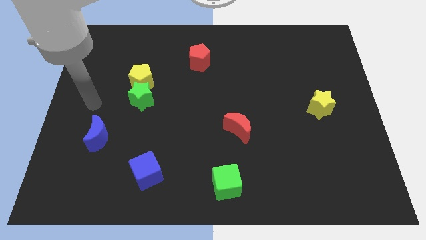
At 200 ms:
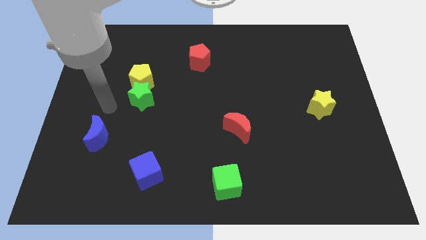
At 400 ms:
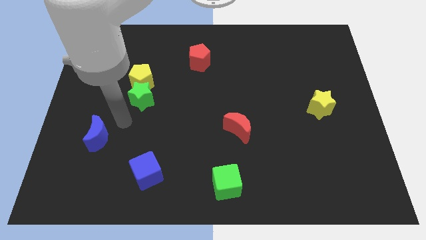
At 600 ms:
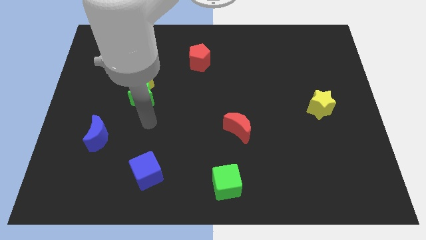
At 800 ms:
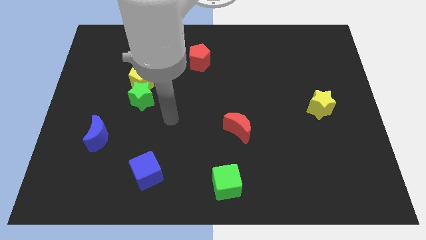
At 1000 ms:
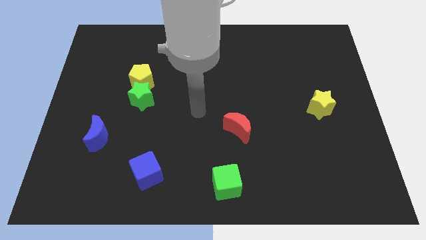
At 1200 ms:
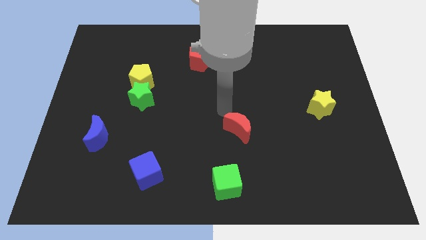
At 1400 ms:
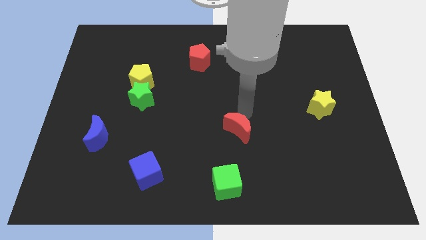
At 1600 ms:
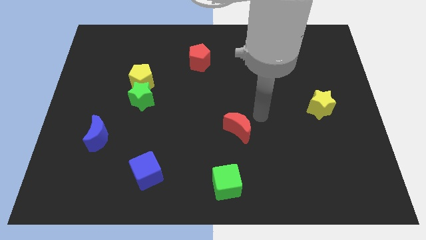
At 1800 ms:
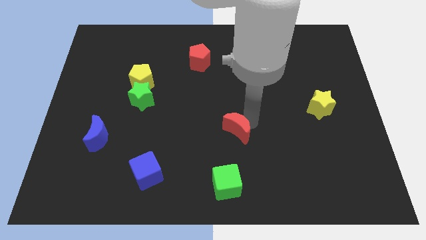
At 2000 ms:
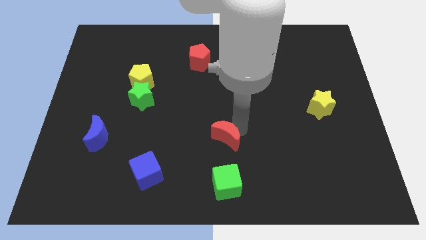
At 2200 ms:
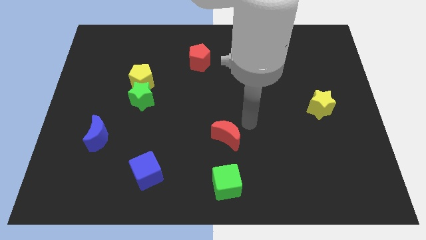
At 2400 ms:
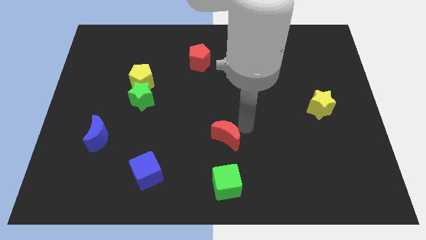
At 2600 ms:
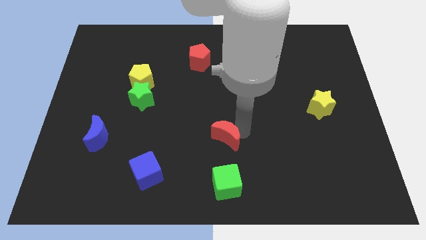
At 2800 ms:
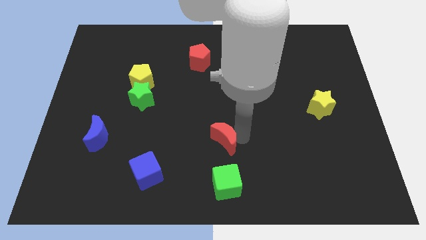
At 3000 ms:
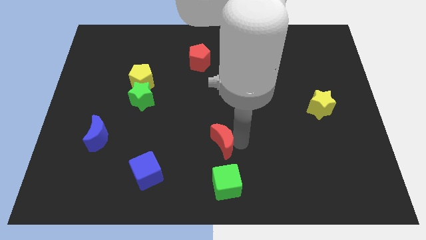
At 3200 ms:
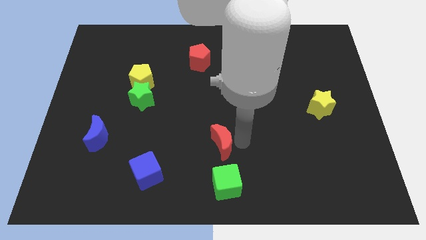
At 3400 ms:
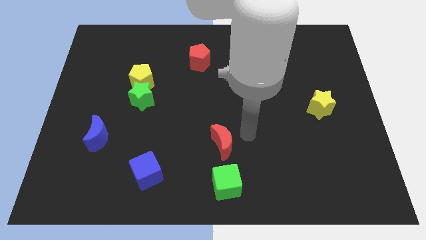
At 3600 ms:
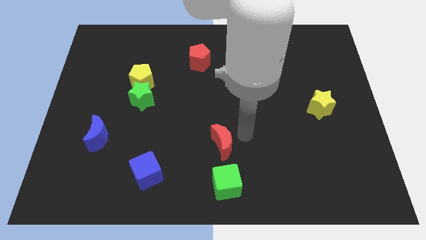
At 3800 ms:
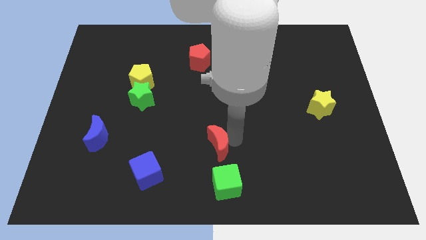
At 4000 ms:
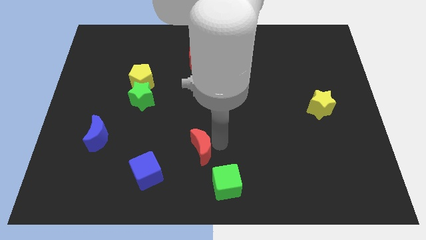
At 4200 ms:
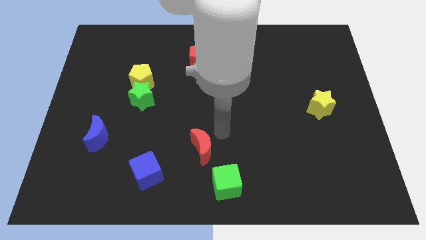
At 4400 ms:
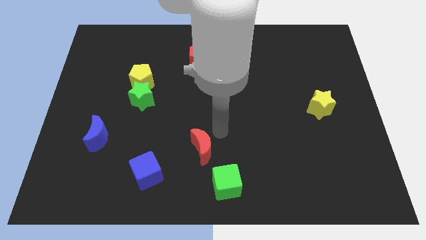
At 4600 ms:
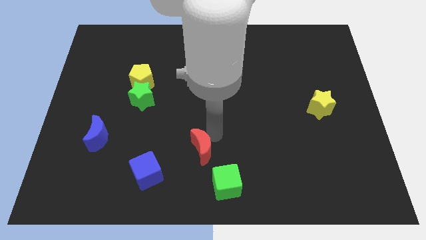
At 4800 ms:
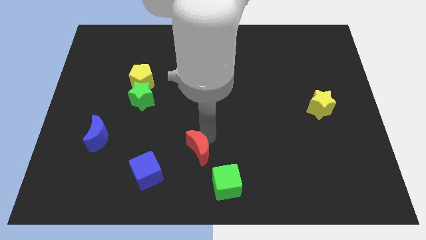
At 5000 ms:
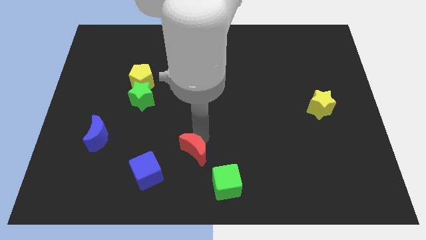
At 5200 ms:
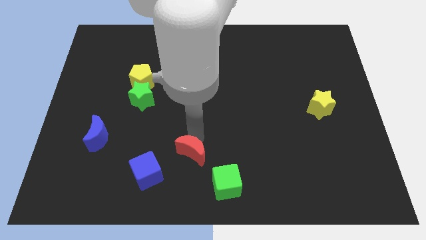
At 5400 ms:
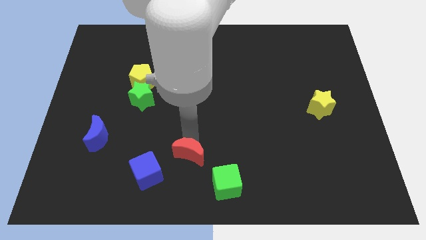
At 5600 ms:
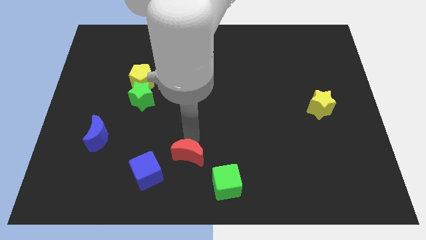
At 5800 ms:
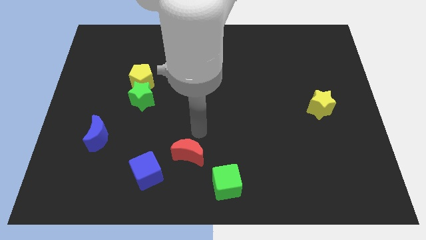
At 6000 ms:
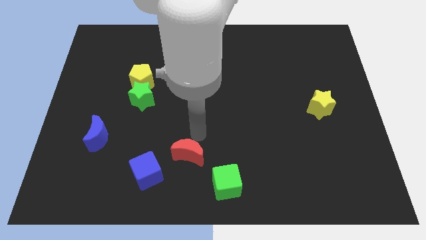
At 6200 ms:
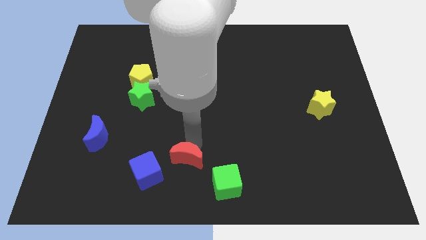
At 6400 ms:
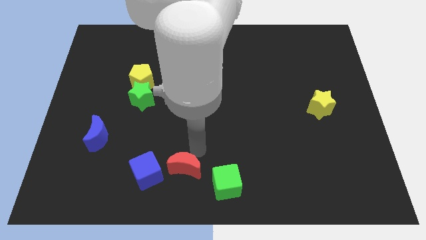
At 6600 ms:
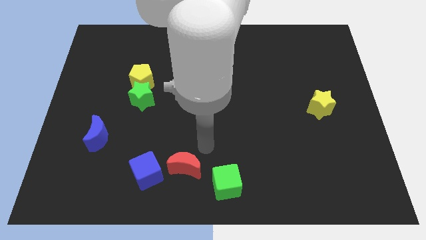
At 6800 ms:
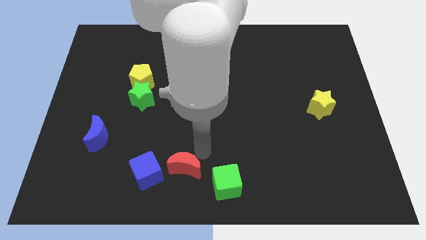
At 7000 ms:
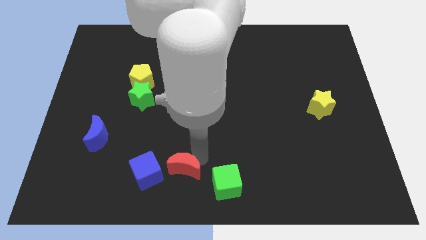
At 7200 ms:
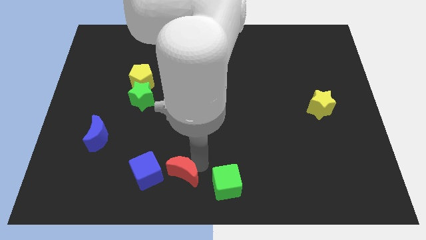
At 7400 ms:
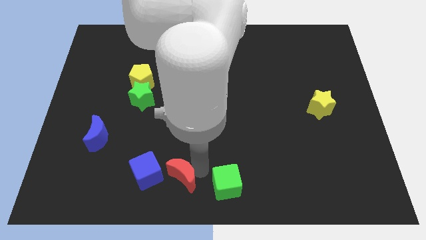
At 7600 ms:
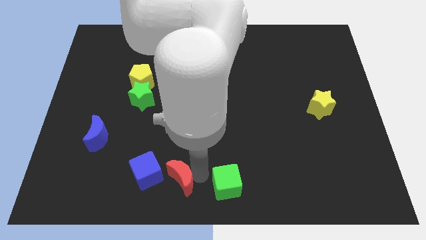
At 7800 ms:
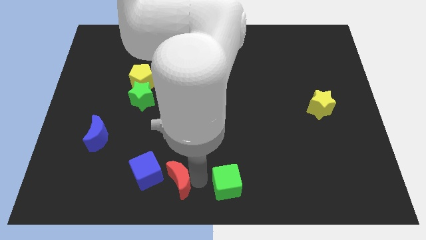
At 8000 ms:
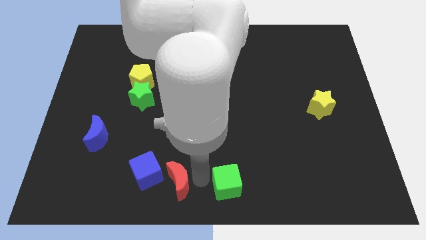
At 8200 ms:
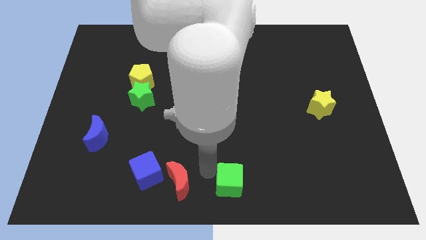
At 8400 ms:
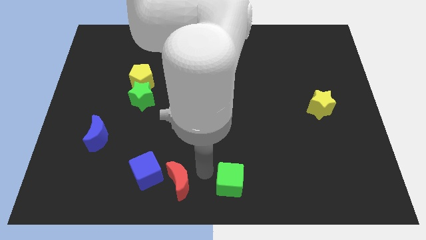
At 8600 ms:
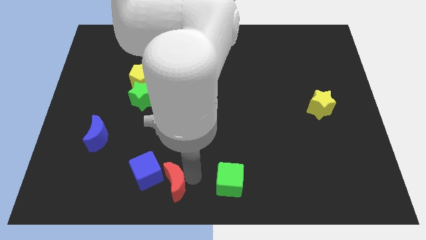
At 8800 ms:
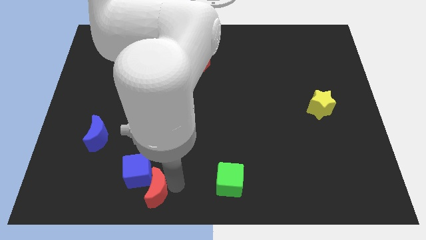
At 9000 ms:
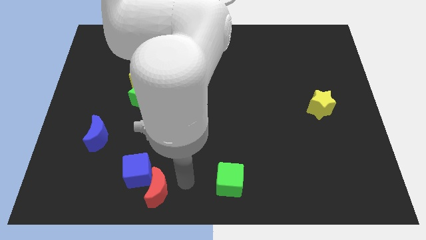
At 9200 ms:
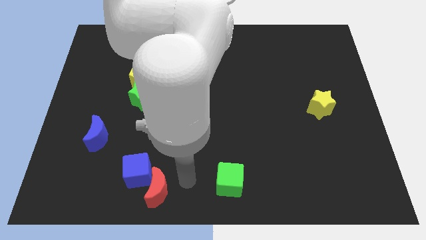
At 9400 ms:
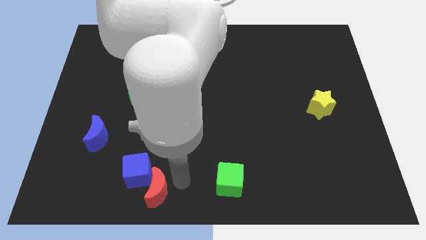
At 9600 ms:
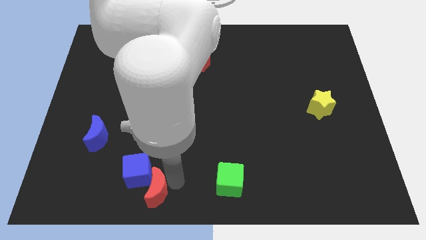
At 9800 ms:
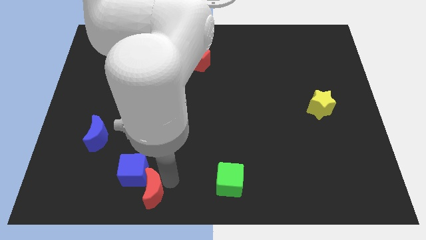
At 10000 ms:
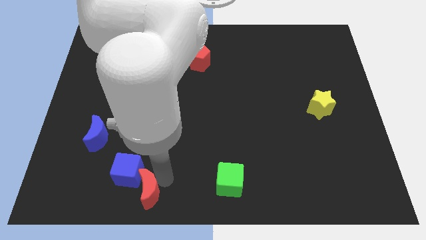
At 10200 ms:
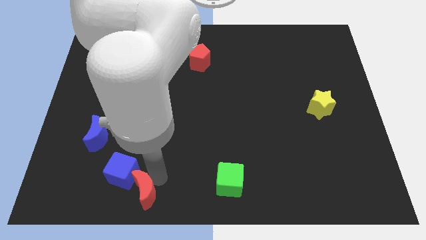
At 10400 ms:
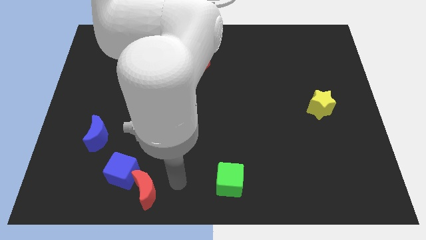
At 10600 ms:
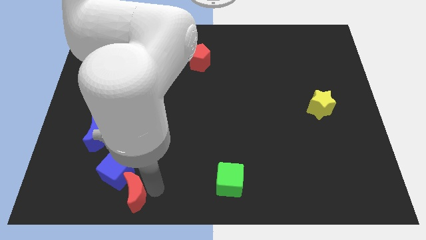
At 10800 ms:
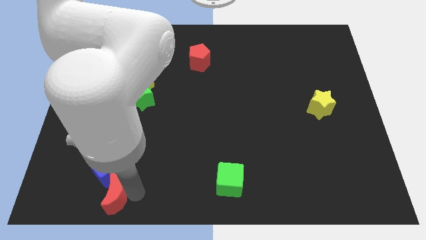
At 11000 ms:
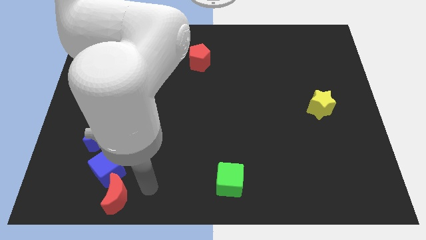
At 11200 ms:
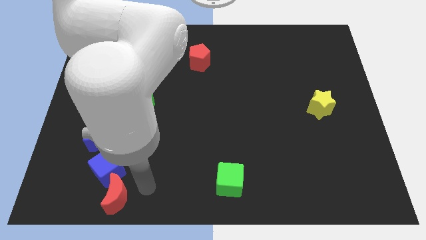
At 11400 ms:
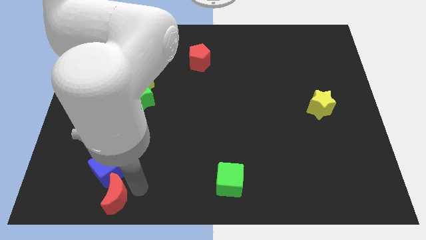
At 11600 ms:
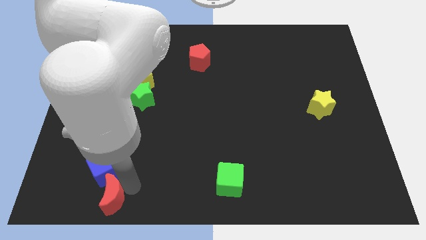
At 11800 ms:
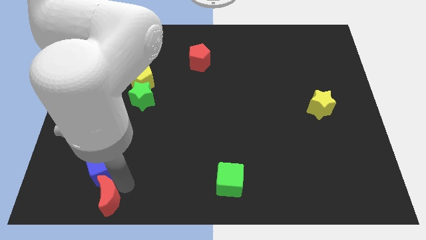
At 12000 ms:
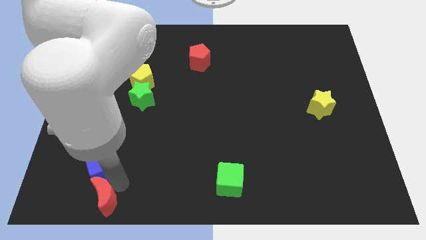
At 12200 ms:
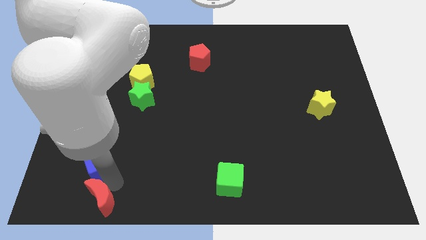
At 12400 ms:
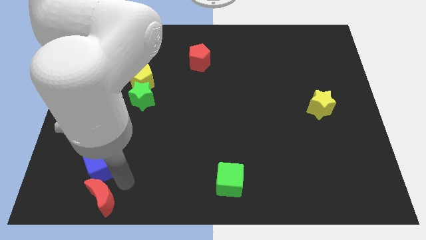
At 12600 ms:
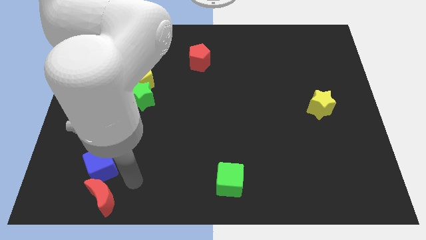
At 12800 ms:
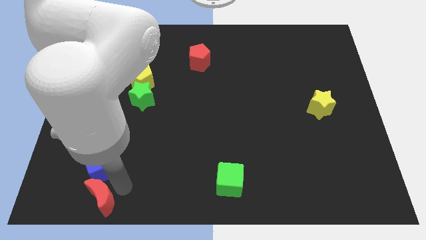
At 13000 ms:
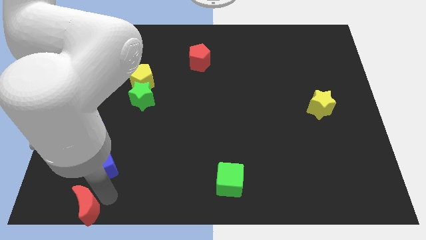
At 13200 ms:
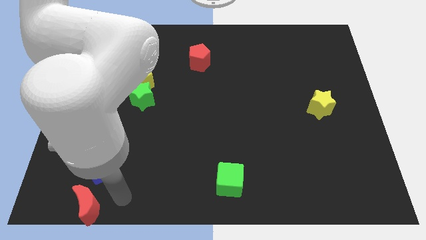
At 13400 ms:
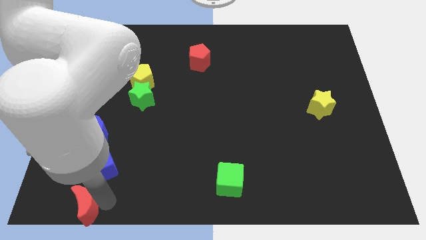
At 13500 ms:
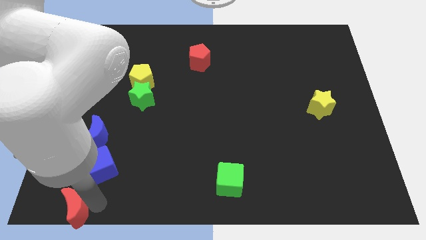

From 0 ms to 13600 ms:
put the red moon to the lower left corner
